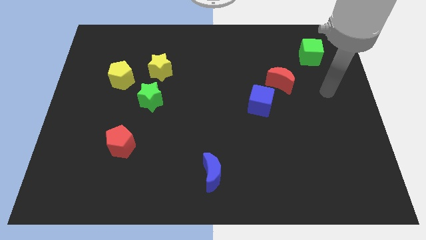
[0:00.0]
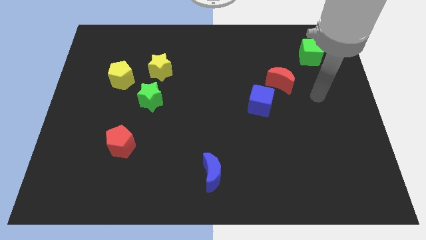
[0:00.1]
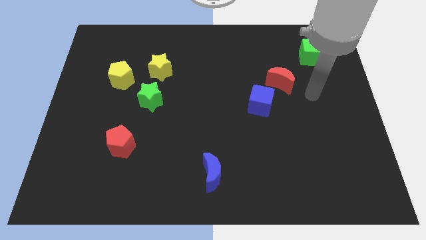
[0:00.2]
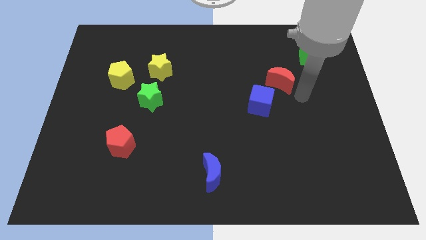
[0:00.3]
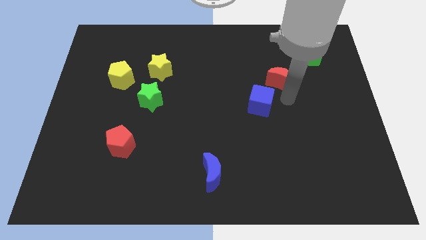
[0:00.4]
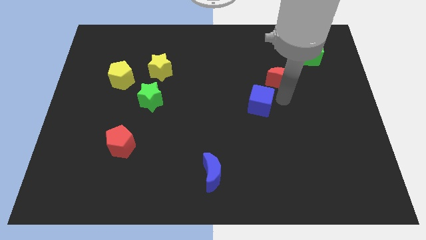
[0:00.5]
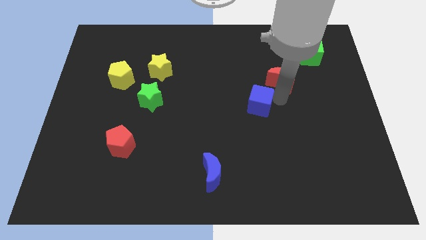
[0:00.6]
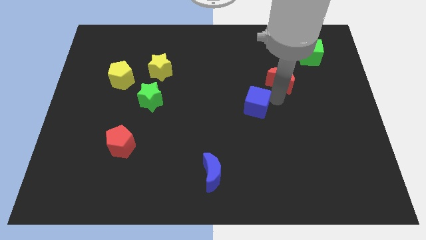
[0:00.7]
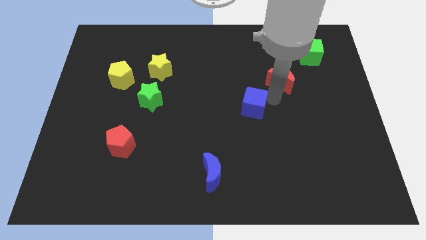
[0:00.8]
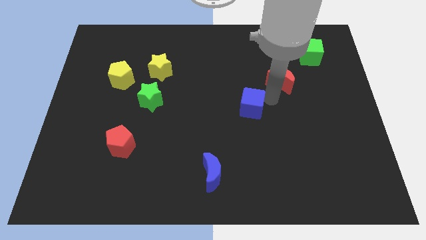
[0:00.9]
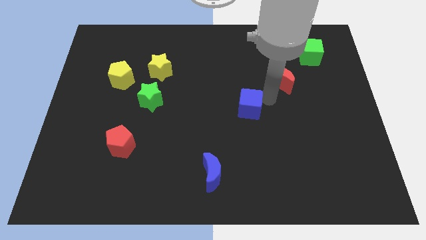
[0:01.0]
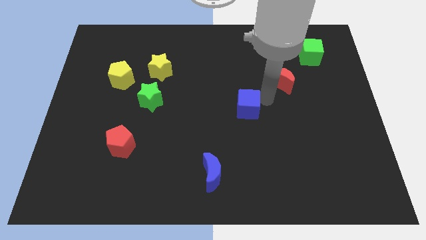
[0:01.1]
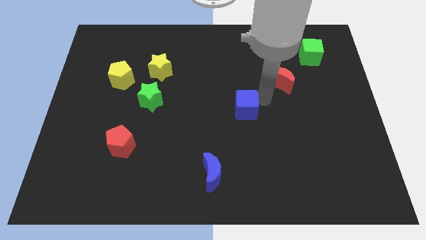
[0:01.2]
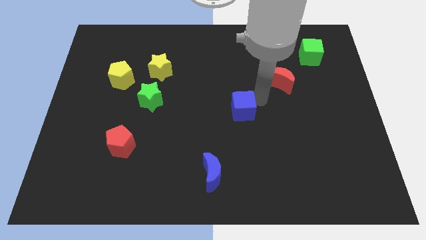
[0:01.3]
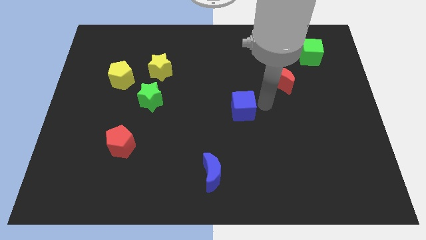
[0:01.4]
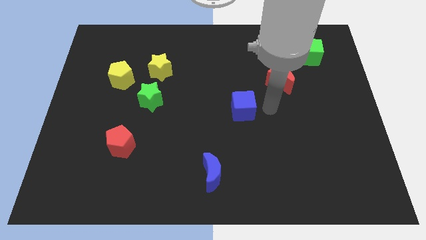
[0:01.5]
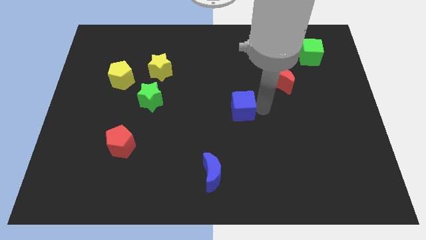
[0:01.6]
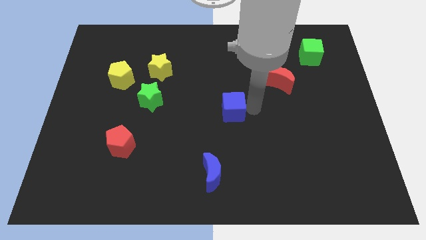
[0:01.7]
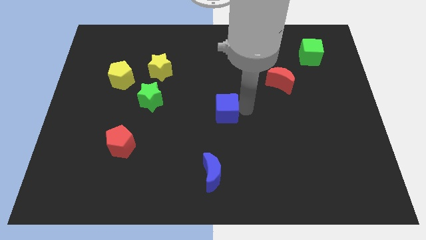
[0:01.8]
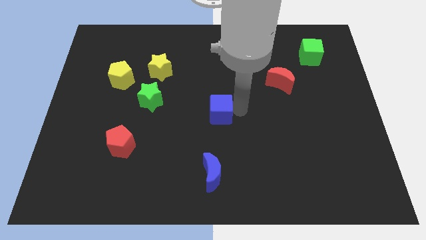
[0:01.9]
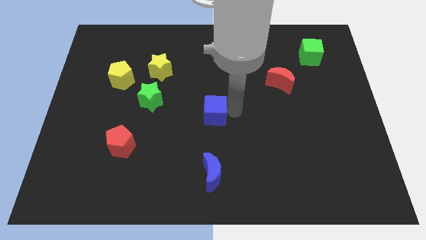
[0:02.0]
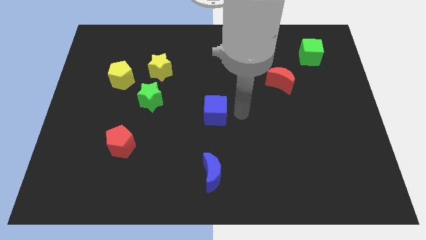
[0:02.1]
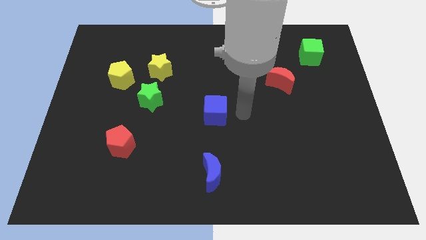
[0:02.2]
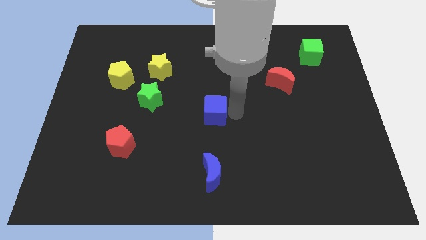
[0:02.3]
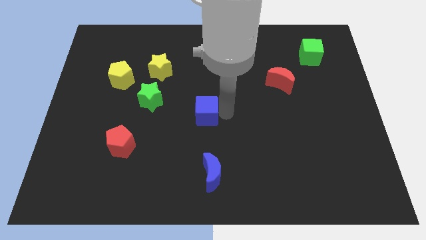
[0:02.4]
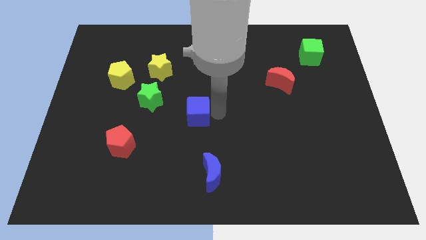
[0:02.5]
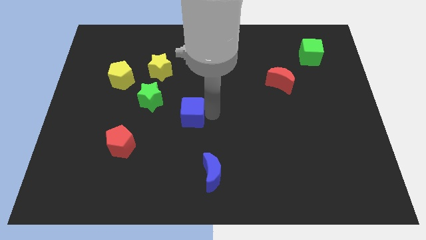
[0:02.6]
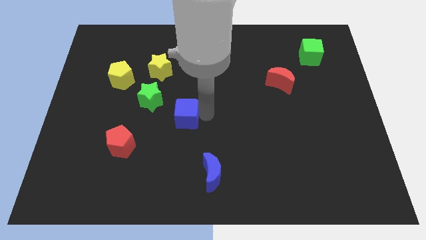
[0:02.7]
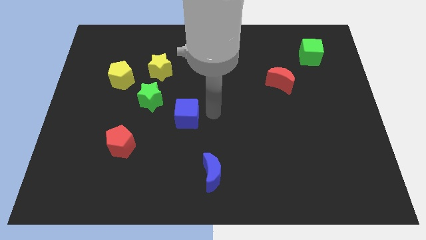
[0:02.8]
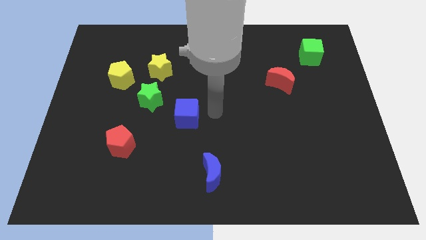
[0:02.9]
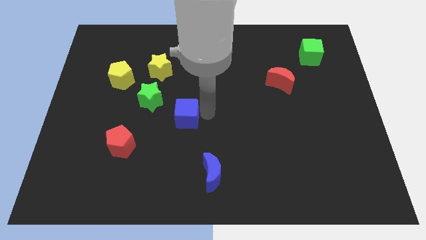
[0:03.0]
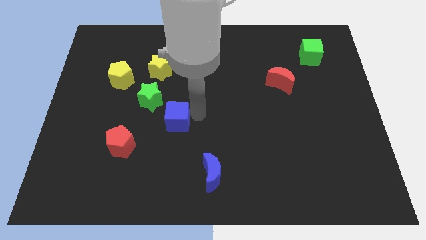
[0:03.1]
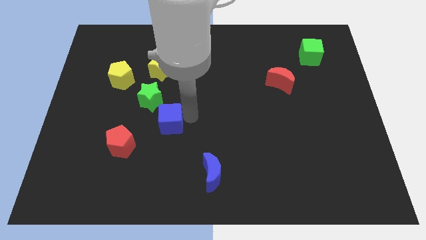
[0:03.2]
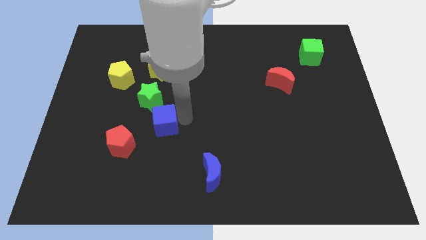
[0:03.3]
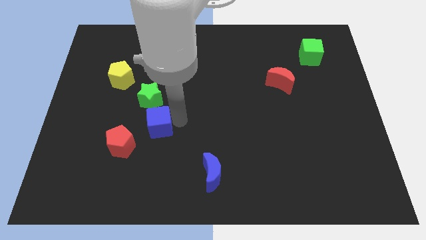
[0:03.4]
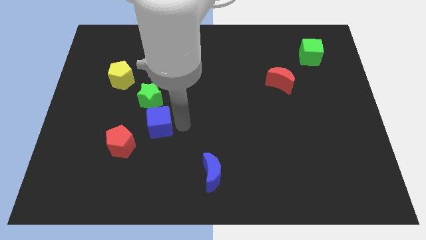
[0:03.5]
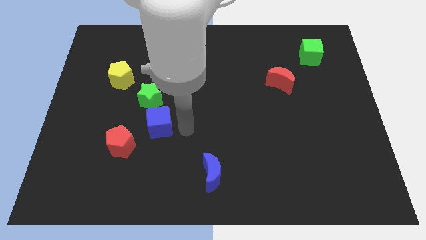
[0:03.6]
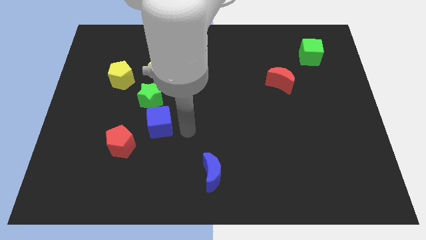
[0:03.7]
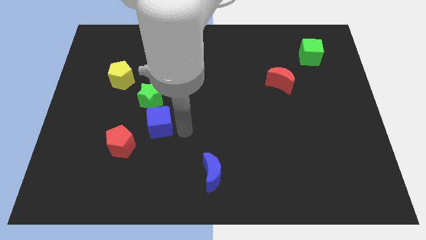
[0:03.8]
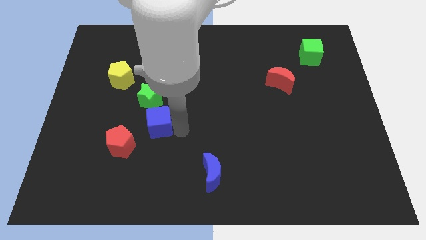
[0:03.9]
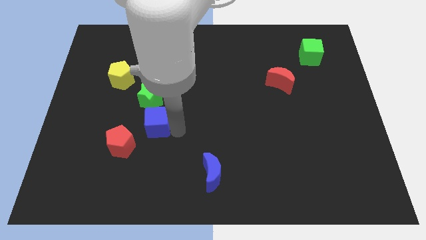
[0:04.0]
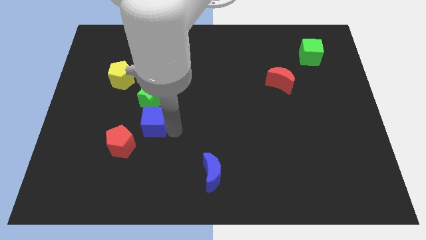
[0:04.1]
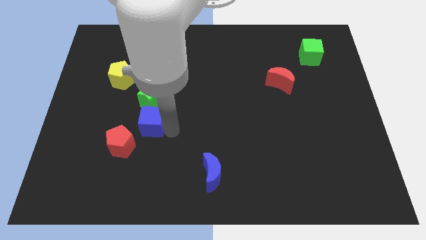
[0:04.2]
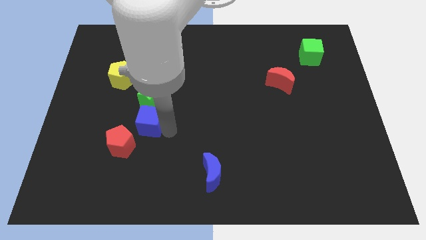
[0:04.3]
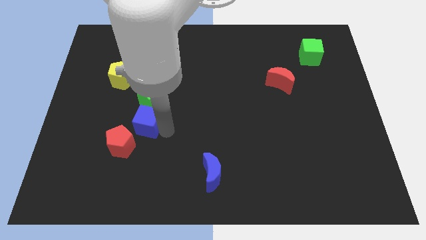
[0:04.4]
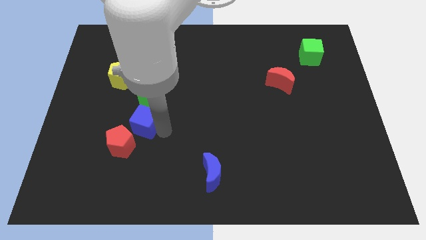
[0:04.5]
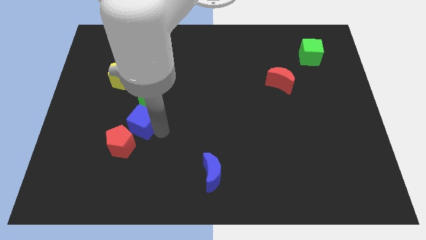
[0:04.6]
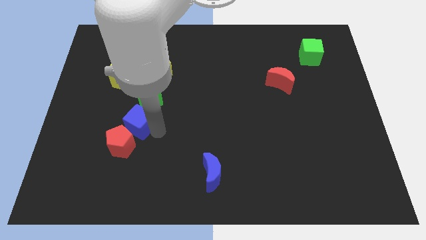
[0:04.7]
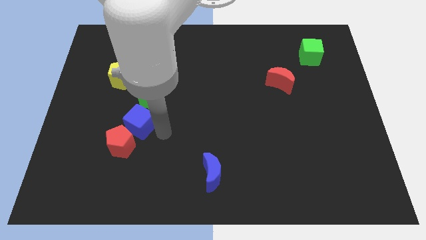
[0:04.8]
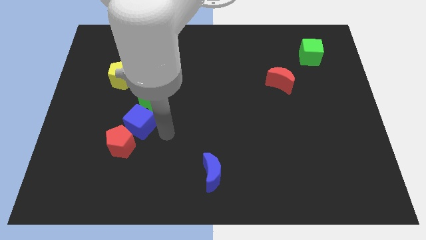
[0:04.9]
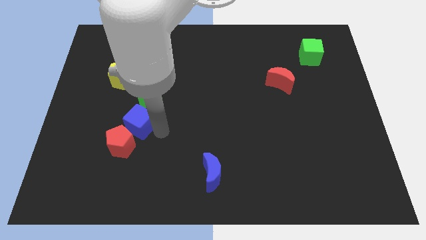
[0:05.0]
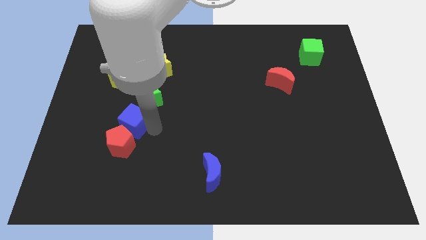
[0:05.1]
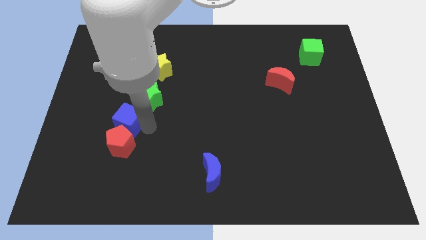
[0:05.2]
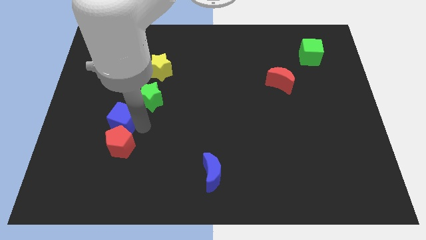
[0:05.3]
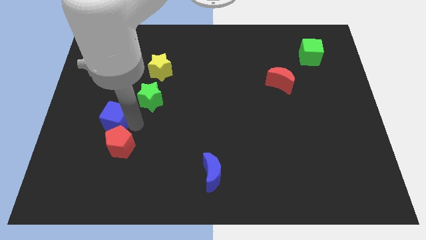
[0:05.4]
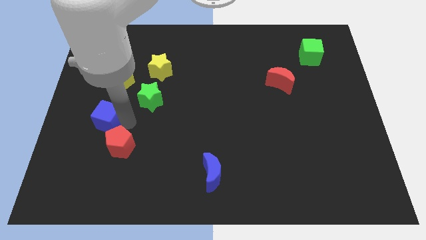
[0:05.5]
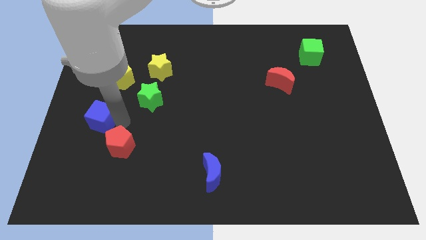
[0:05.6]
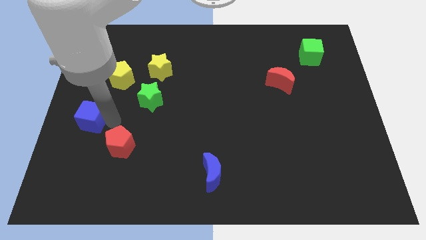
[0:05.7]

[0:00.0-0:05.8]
move the blue cube to the left side
